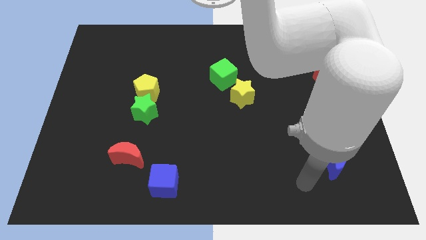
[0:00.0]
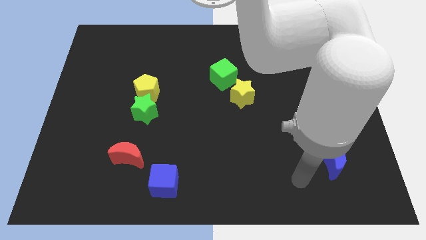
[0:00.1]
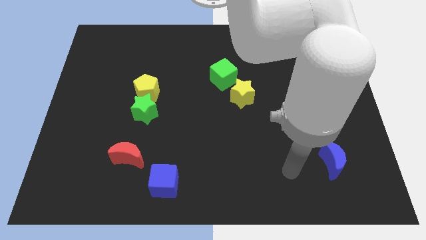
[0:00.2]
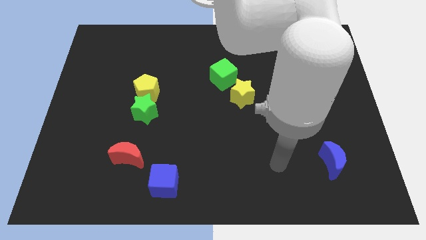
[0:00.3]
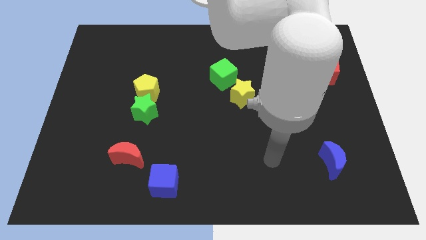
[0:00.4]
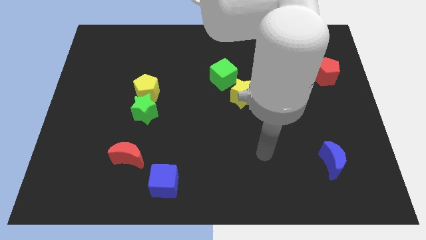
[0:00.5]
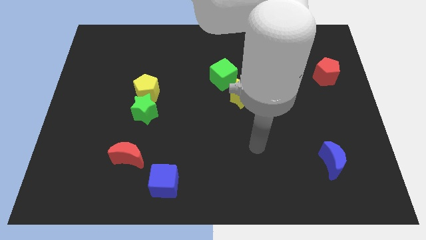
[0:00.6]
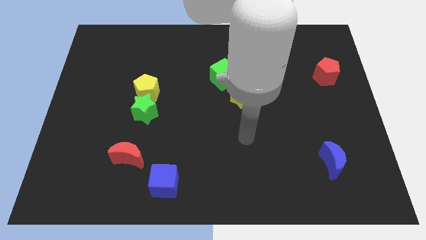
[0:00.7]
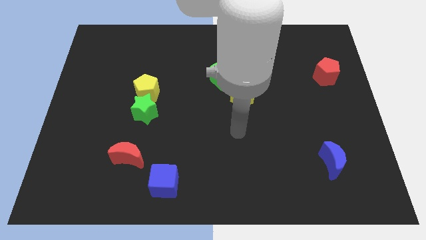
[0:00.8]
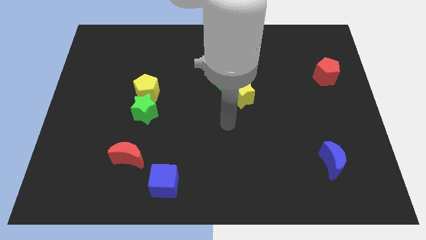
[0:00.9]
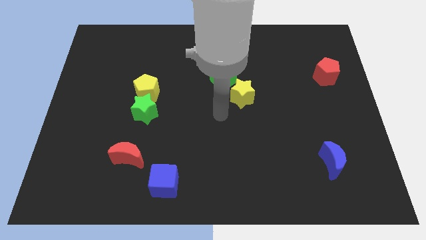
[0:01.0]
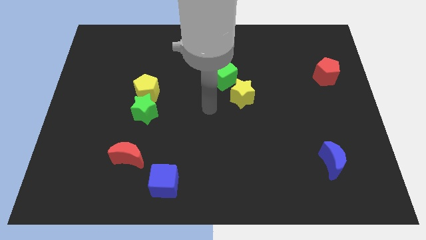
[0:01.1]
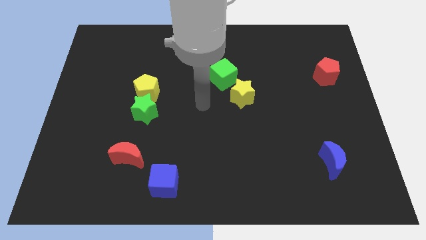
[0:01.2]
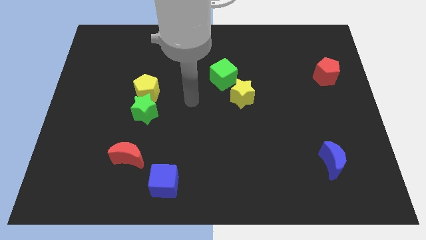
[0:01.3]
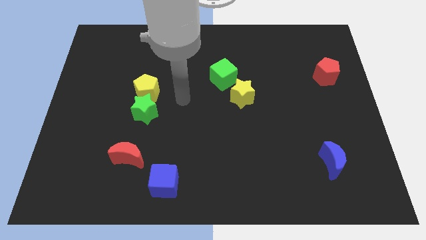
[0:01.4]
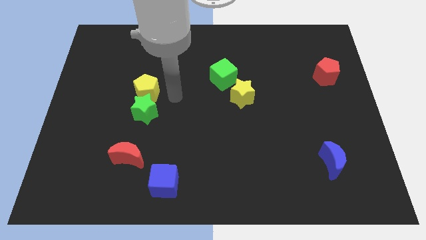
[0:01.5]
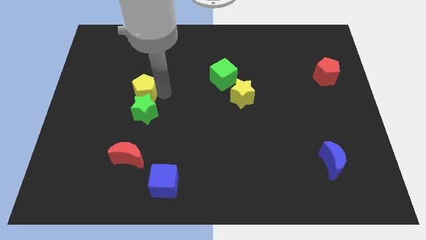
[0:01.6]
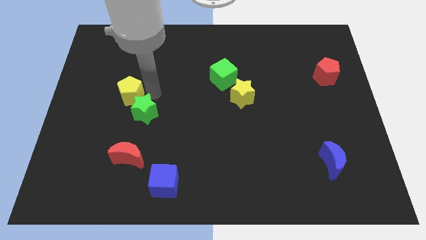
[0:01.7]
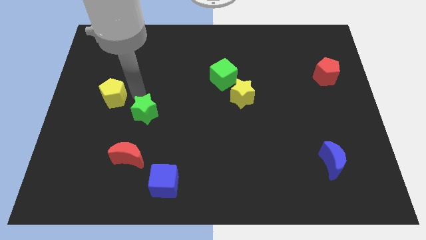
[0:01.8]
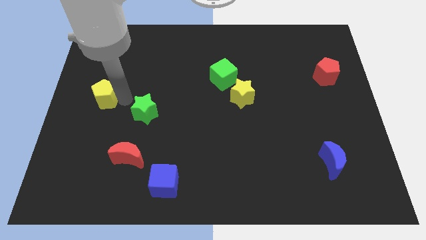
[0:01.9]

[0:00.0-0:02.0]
move the green star away from the yellow pentagon

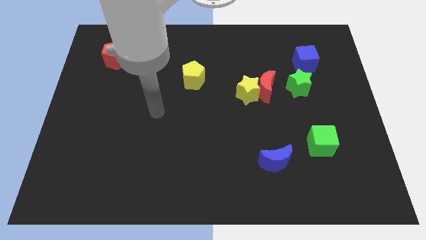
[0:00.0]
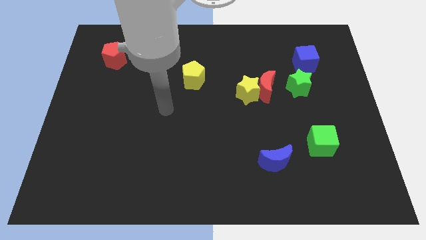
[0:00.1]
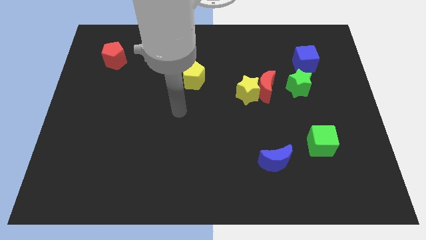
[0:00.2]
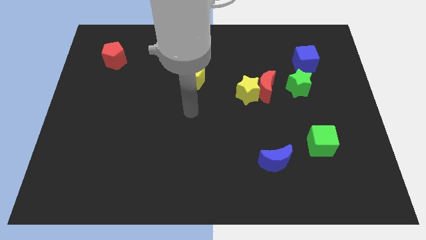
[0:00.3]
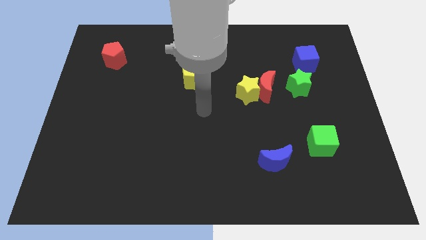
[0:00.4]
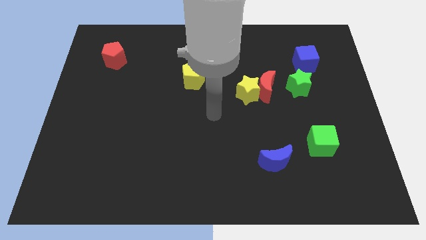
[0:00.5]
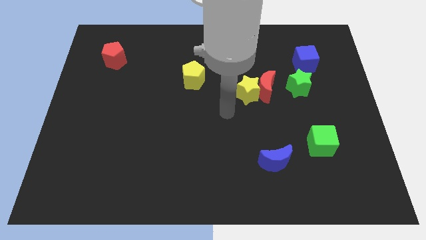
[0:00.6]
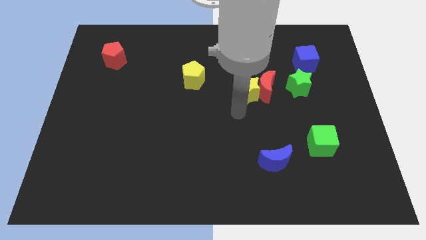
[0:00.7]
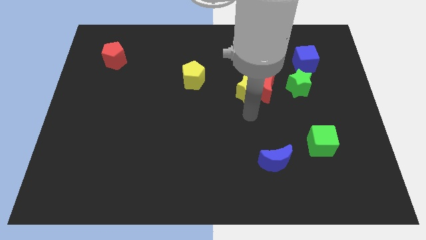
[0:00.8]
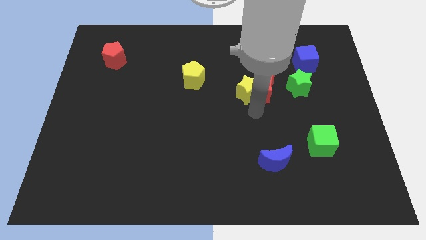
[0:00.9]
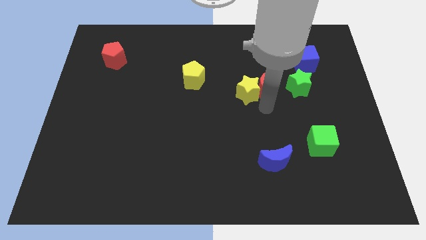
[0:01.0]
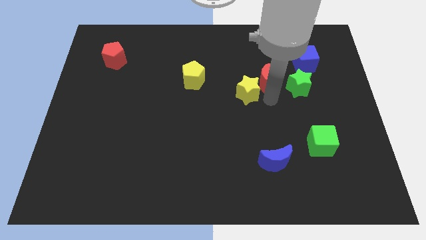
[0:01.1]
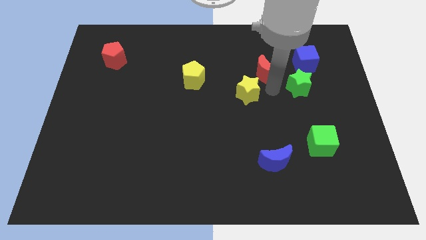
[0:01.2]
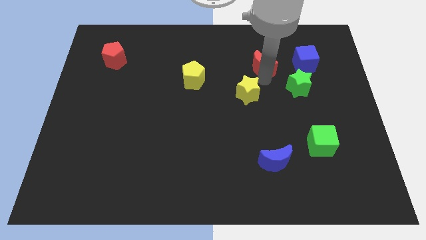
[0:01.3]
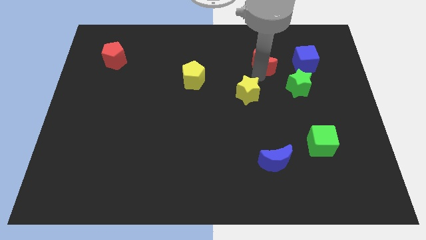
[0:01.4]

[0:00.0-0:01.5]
separate the yellow star from the red moon

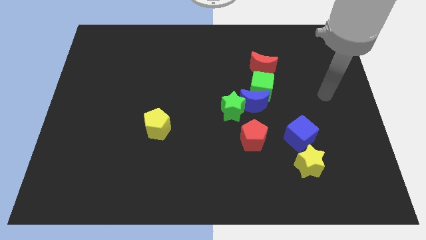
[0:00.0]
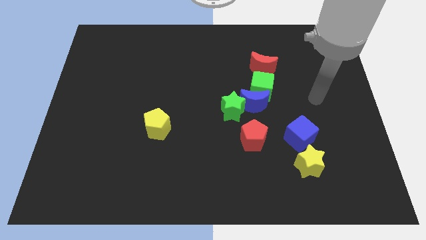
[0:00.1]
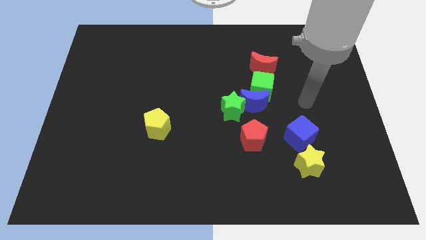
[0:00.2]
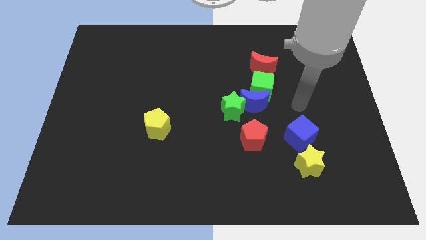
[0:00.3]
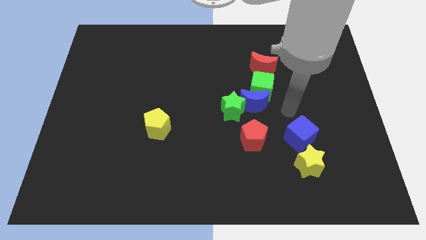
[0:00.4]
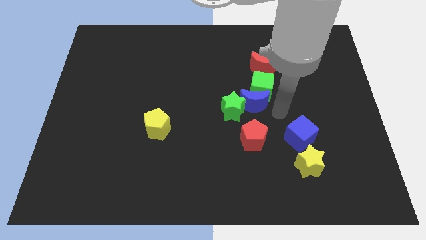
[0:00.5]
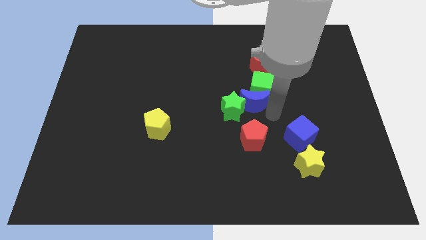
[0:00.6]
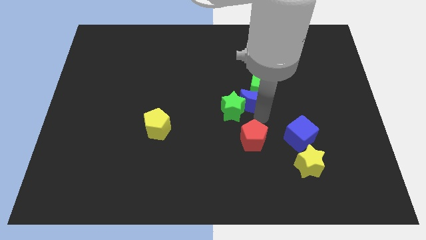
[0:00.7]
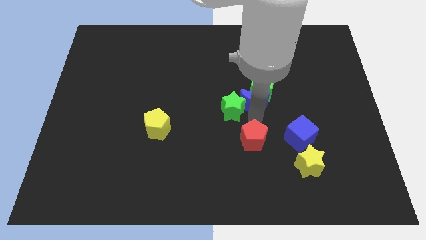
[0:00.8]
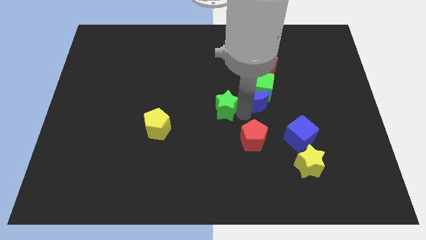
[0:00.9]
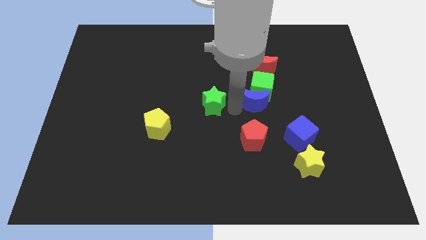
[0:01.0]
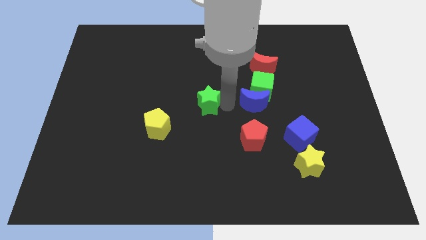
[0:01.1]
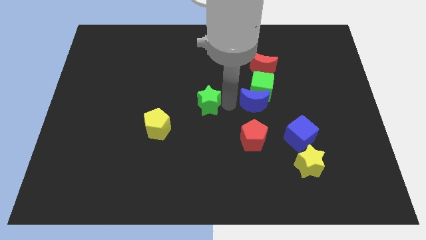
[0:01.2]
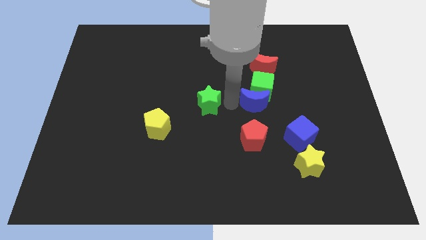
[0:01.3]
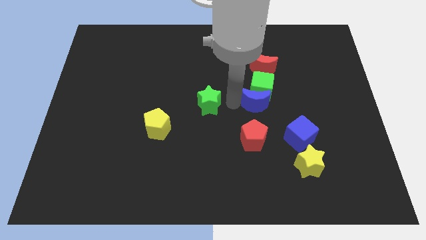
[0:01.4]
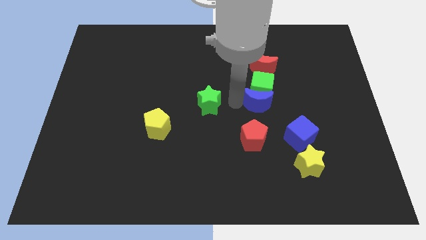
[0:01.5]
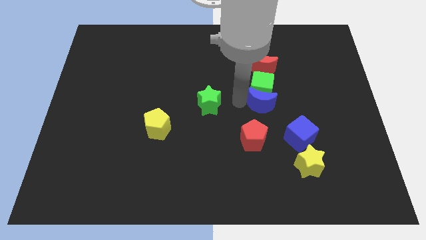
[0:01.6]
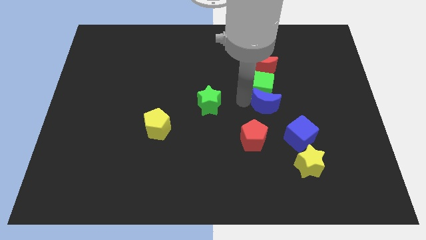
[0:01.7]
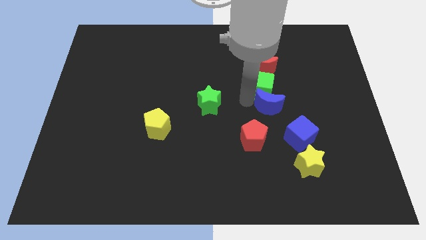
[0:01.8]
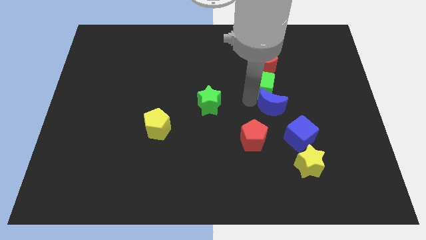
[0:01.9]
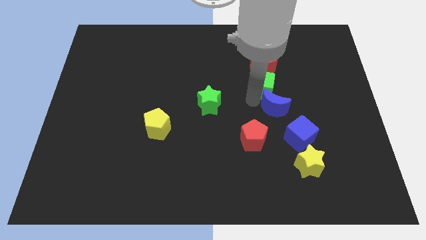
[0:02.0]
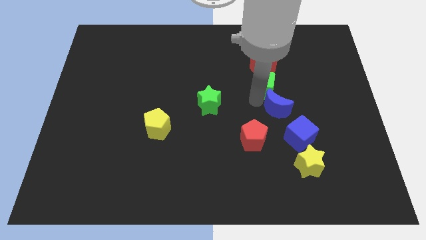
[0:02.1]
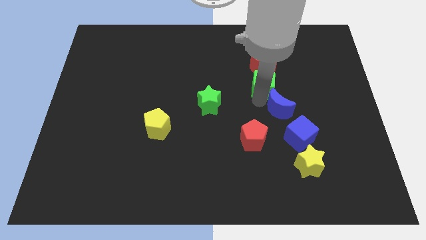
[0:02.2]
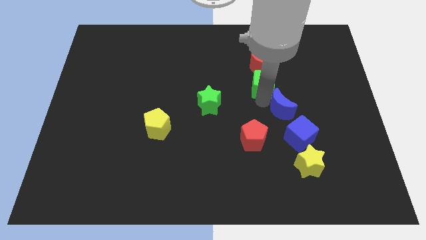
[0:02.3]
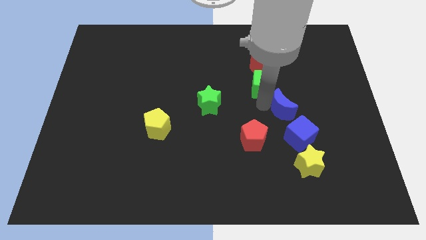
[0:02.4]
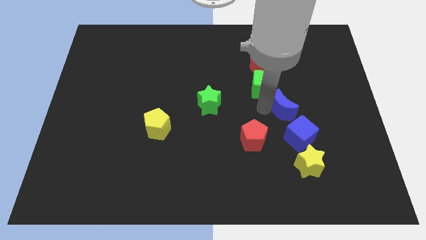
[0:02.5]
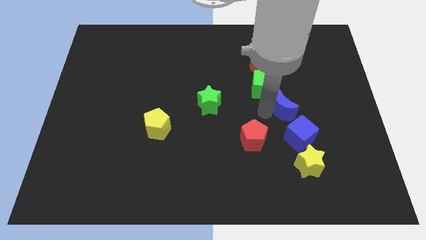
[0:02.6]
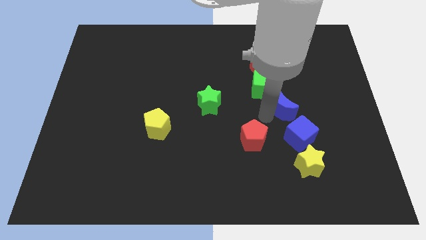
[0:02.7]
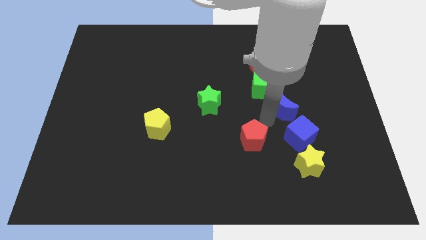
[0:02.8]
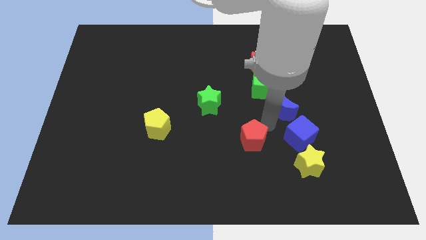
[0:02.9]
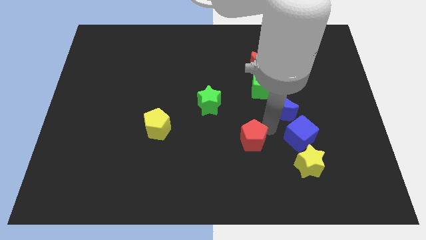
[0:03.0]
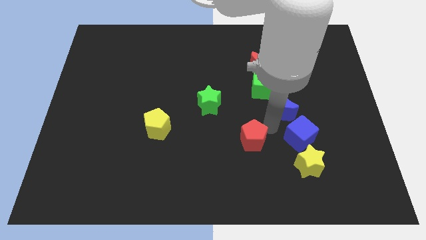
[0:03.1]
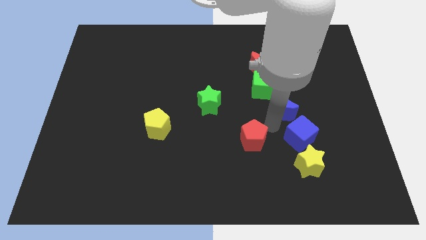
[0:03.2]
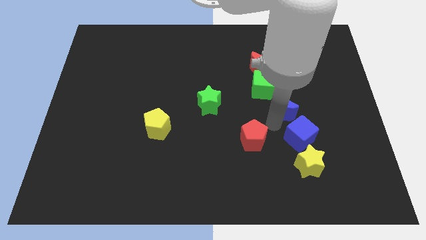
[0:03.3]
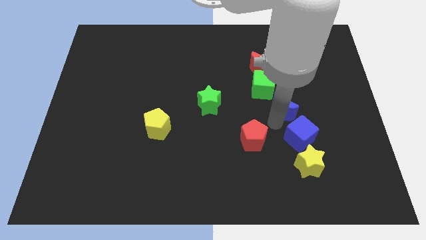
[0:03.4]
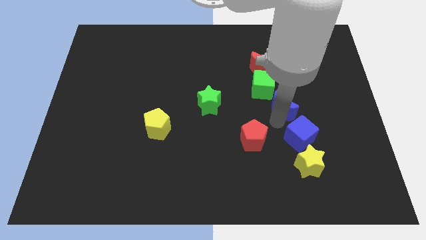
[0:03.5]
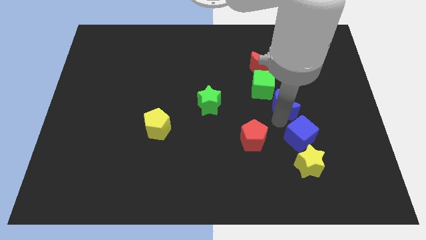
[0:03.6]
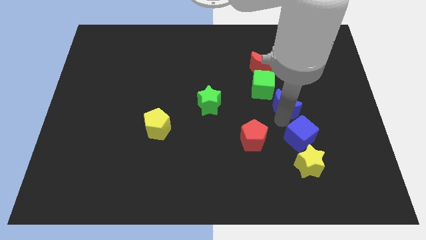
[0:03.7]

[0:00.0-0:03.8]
pull the blue moon apart from the green cube, green star, and red pentagon

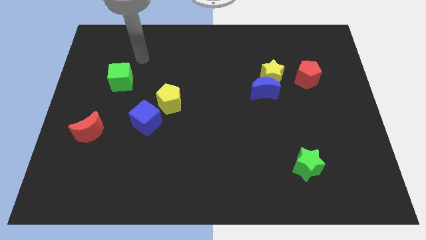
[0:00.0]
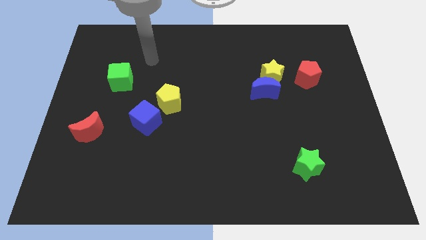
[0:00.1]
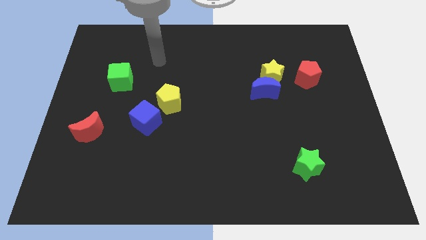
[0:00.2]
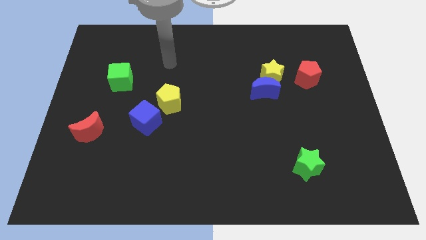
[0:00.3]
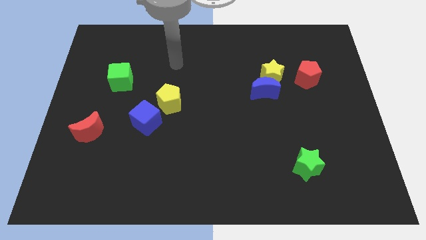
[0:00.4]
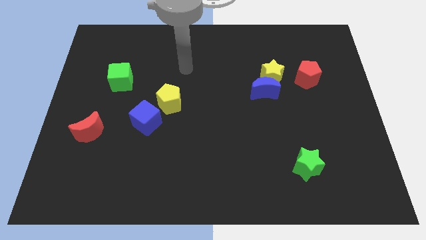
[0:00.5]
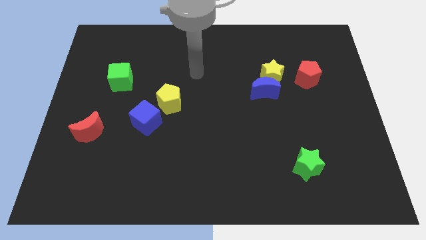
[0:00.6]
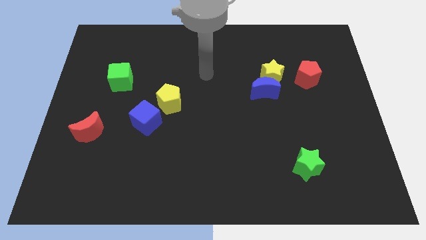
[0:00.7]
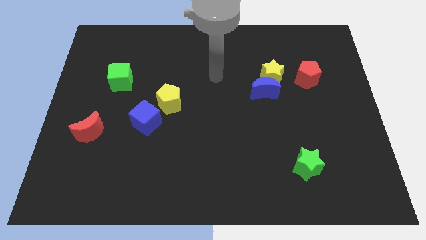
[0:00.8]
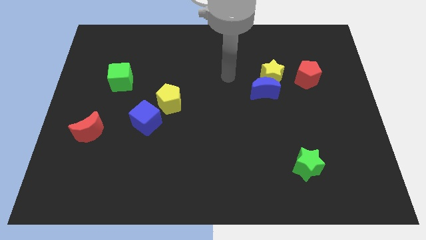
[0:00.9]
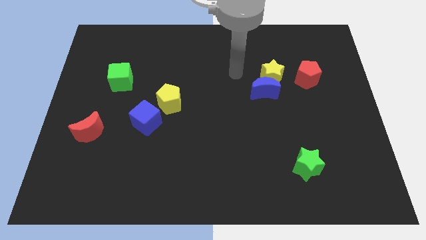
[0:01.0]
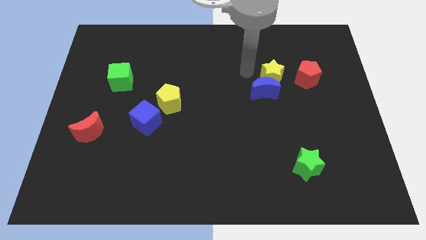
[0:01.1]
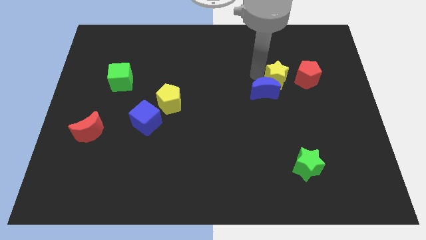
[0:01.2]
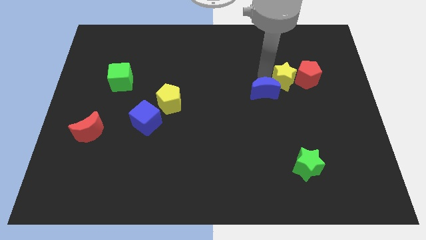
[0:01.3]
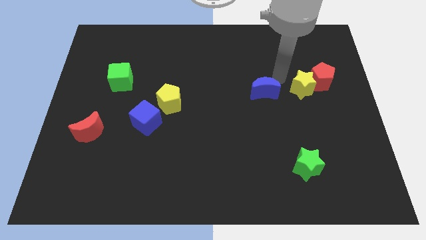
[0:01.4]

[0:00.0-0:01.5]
separate the blue moon from the yellow star

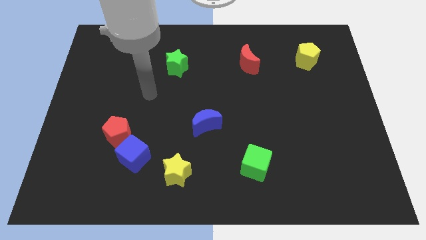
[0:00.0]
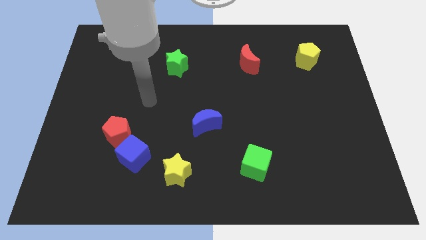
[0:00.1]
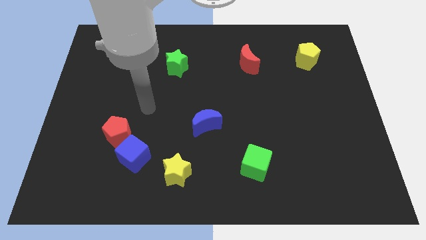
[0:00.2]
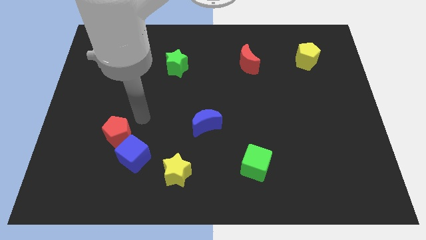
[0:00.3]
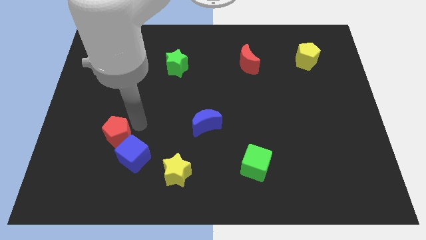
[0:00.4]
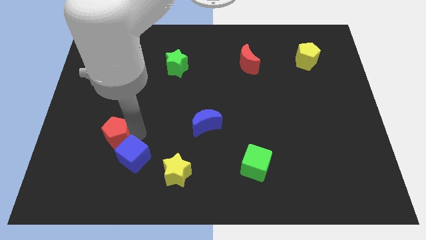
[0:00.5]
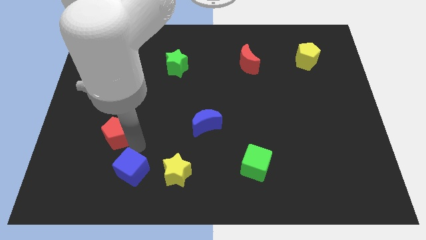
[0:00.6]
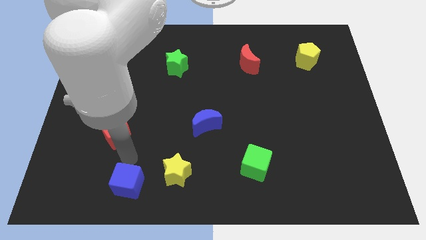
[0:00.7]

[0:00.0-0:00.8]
move the red pentagon away from the blue cube
